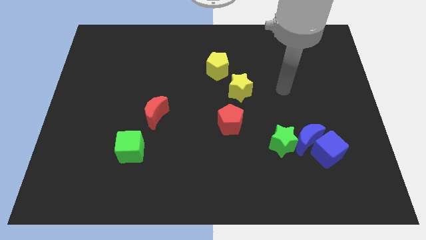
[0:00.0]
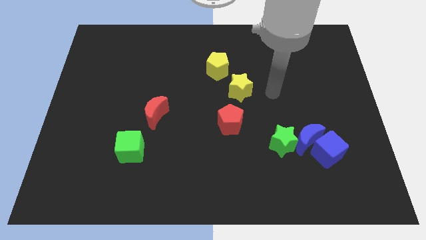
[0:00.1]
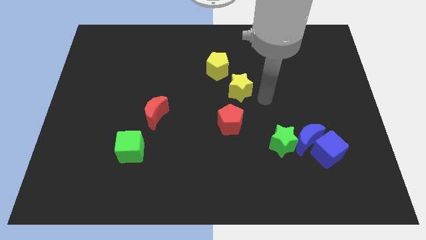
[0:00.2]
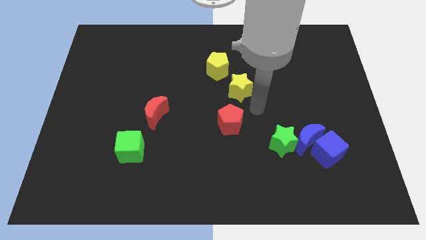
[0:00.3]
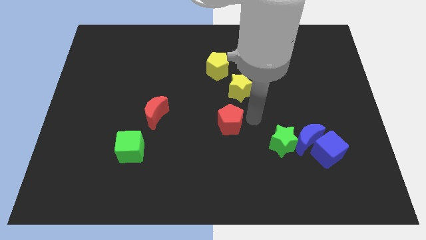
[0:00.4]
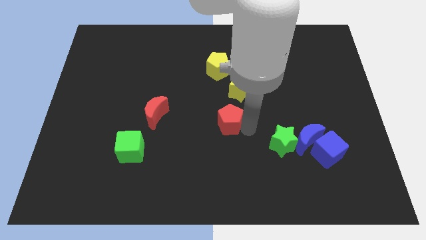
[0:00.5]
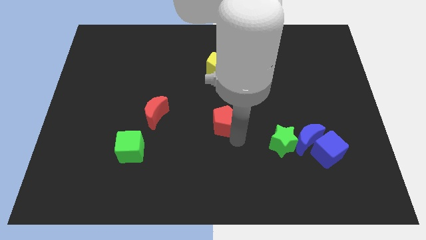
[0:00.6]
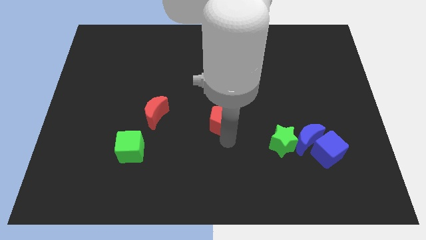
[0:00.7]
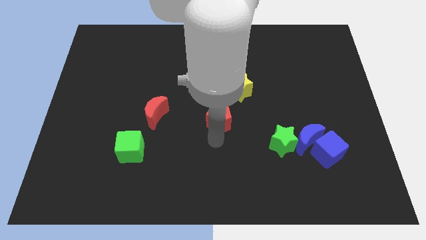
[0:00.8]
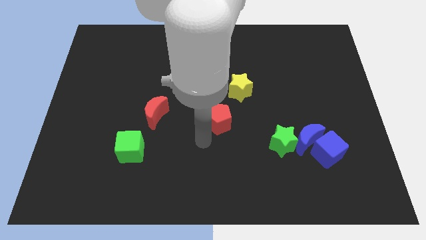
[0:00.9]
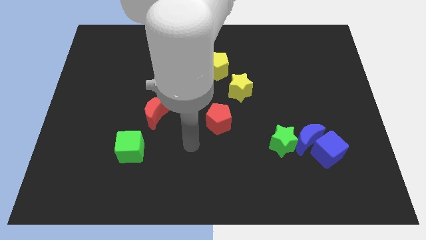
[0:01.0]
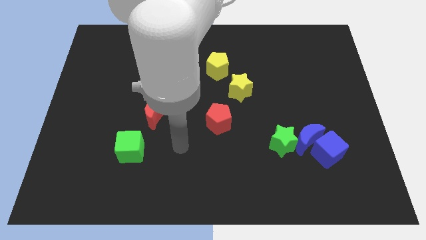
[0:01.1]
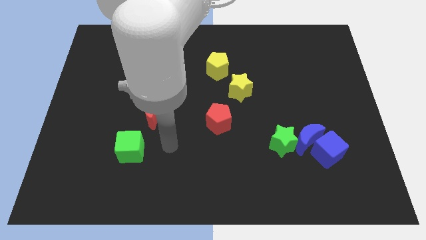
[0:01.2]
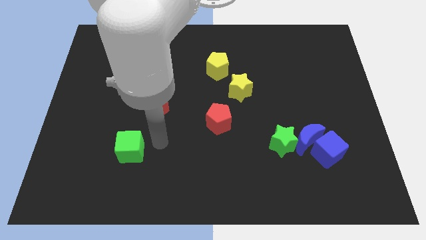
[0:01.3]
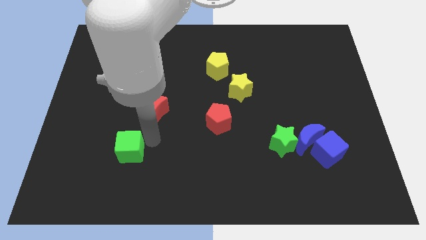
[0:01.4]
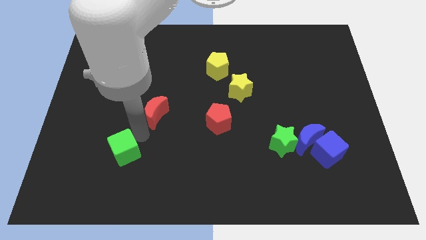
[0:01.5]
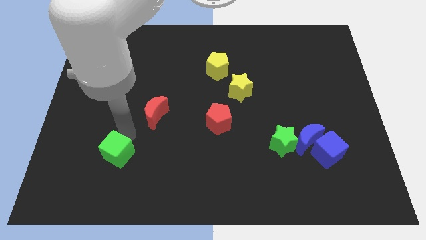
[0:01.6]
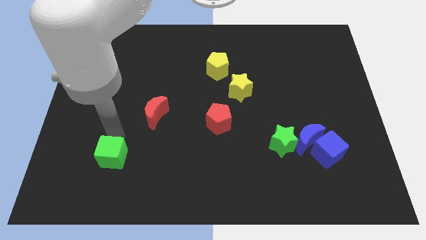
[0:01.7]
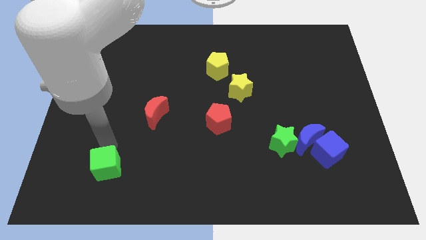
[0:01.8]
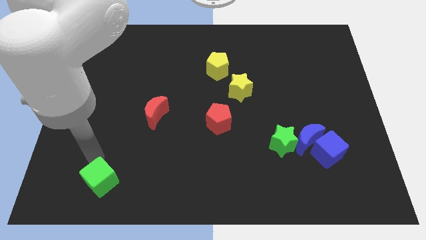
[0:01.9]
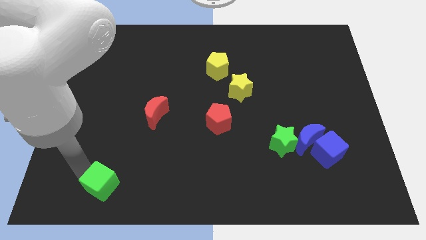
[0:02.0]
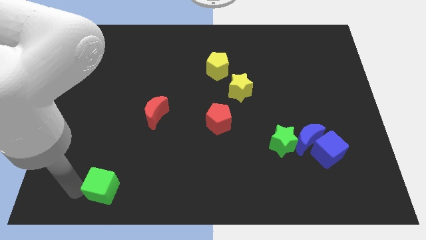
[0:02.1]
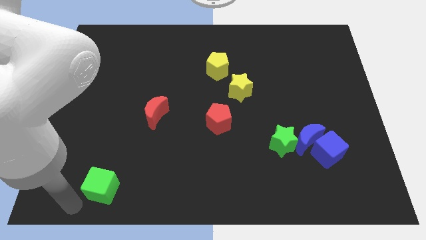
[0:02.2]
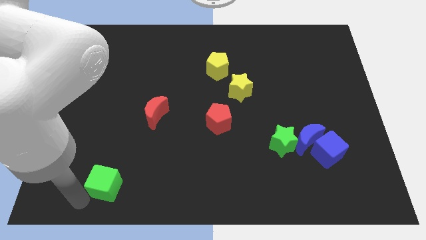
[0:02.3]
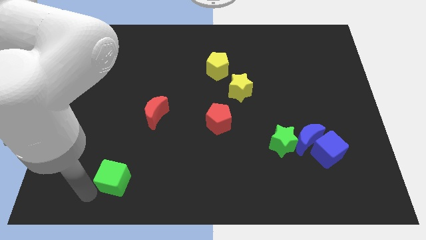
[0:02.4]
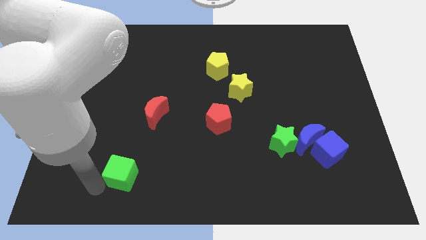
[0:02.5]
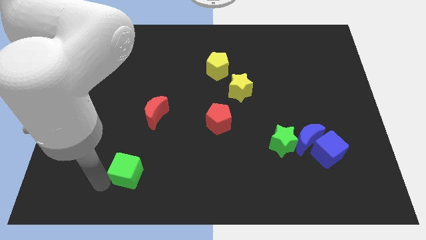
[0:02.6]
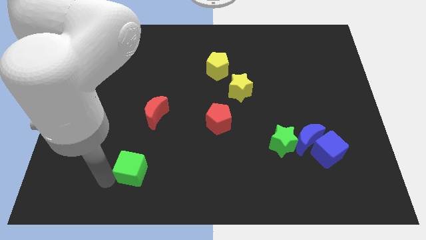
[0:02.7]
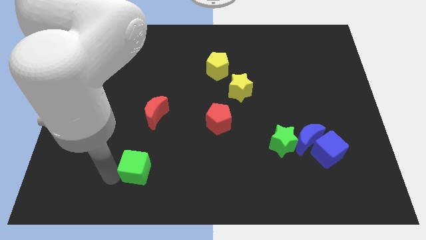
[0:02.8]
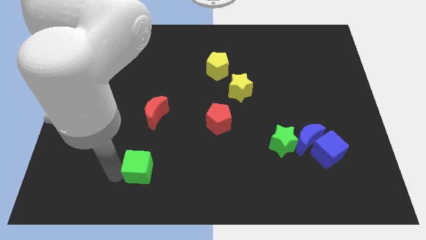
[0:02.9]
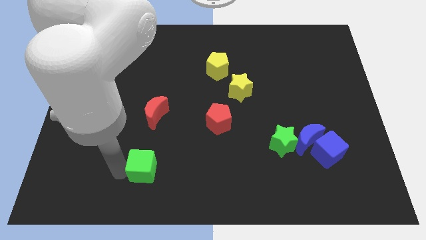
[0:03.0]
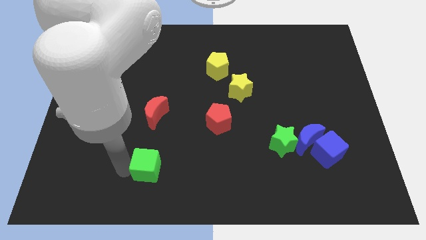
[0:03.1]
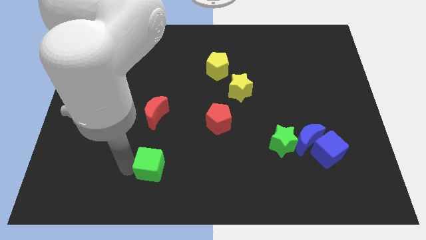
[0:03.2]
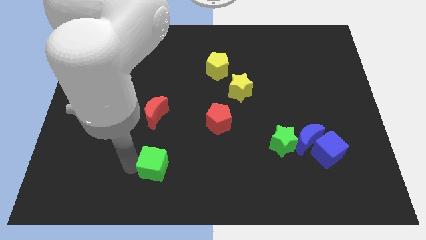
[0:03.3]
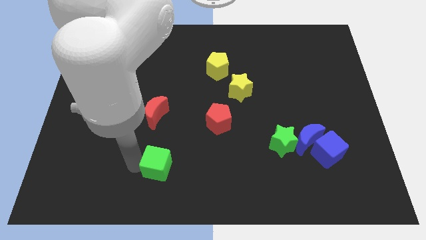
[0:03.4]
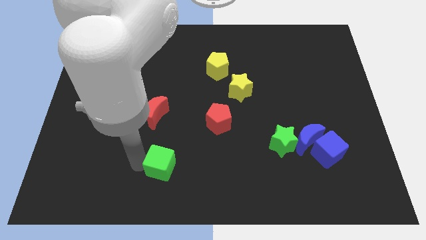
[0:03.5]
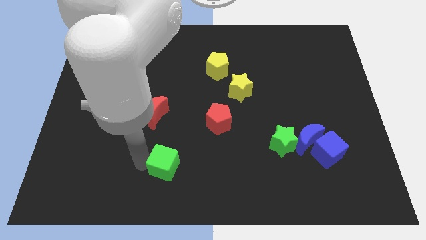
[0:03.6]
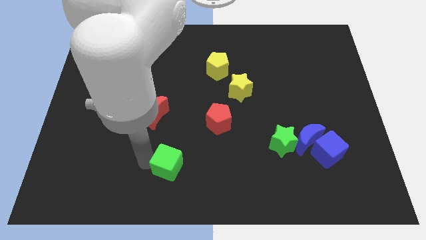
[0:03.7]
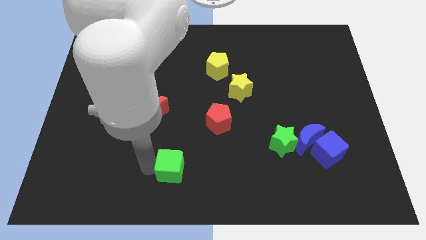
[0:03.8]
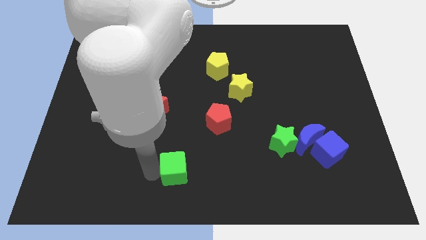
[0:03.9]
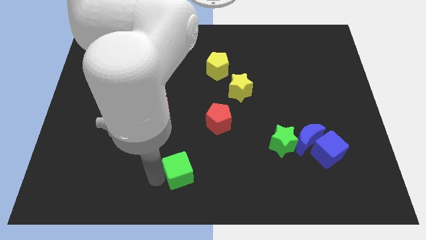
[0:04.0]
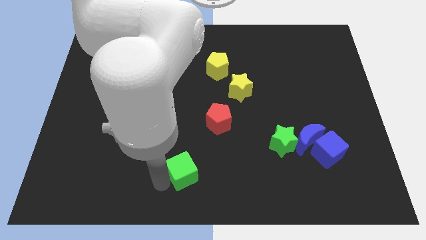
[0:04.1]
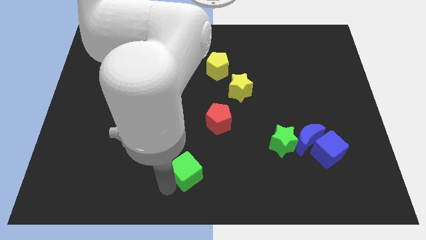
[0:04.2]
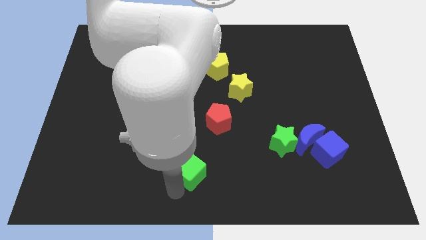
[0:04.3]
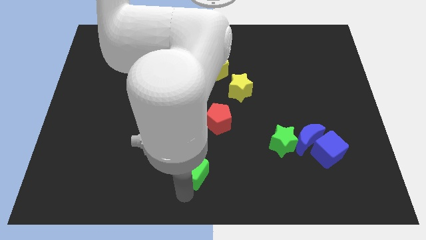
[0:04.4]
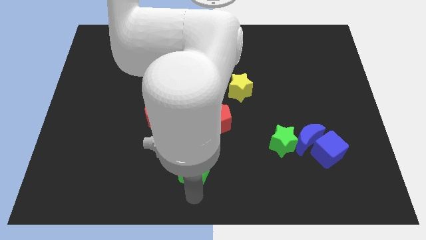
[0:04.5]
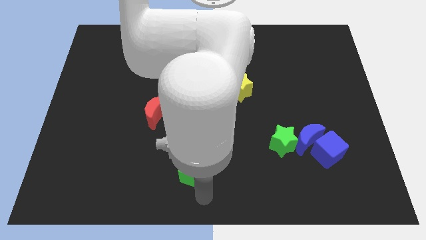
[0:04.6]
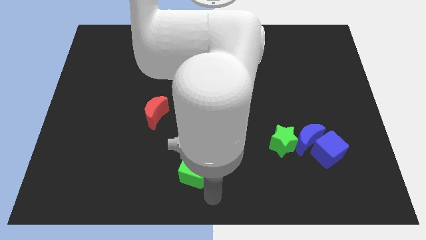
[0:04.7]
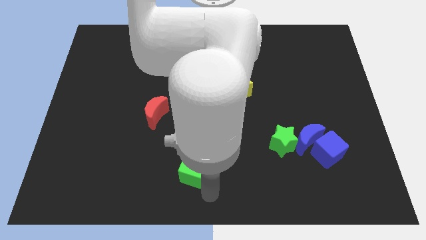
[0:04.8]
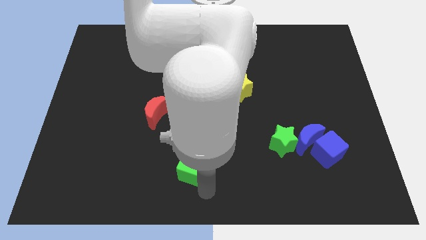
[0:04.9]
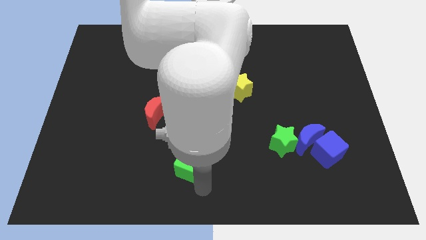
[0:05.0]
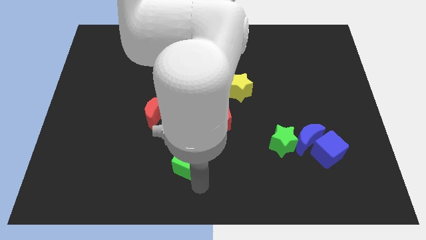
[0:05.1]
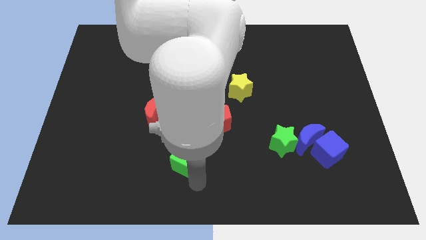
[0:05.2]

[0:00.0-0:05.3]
push the green cube to the bottom left of the red pentagon

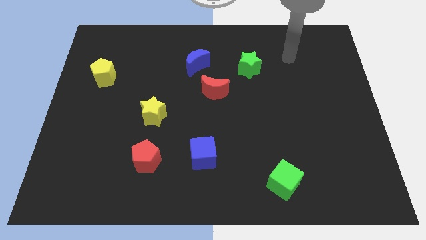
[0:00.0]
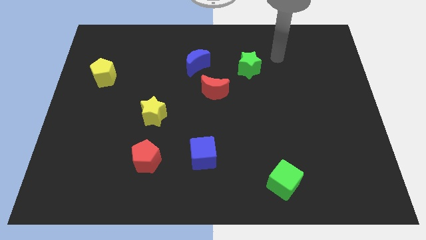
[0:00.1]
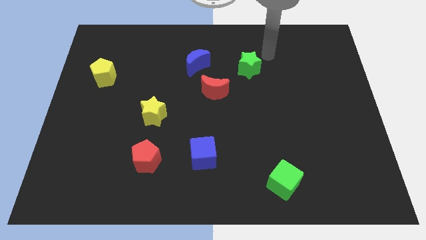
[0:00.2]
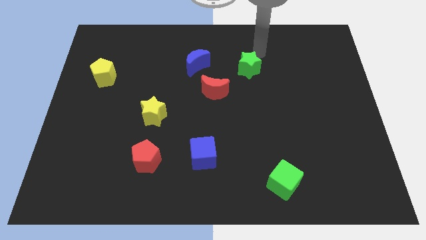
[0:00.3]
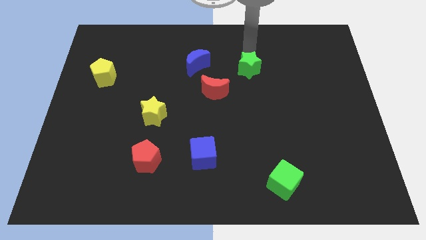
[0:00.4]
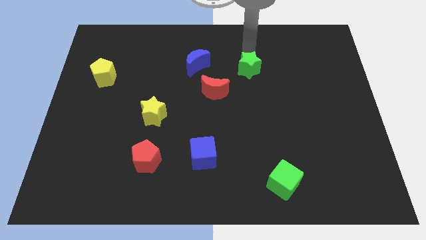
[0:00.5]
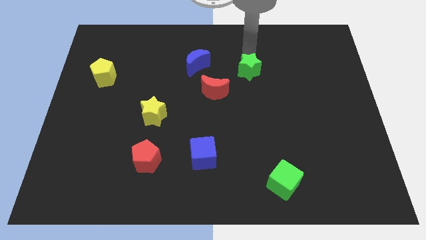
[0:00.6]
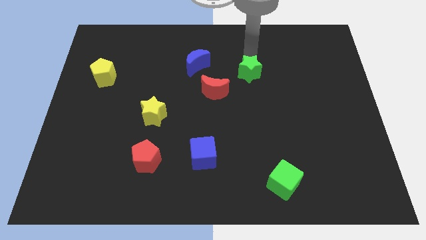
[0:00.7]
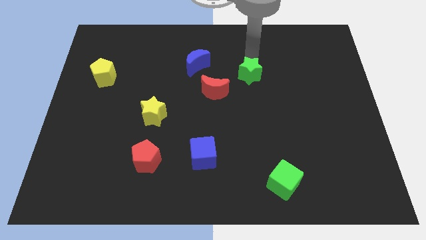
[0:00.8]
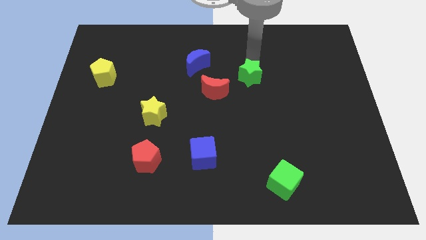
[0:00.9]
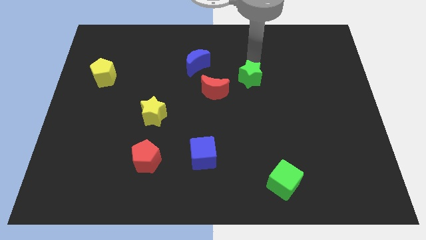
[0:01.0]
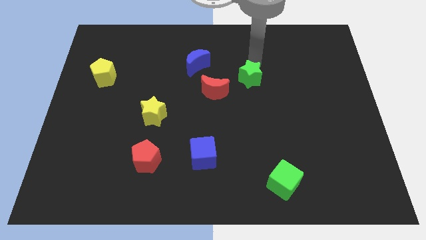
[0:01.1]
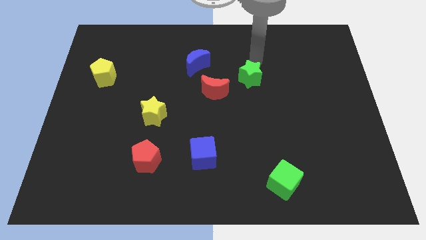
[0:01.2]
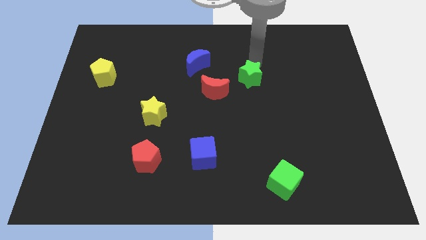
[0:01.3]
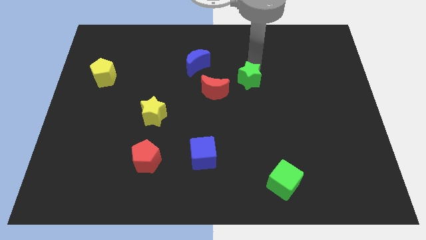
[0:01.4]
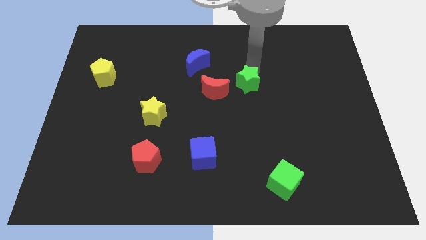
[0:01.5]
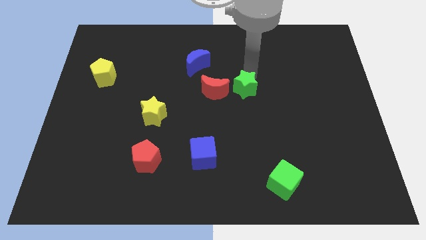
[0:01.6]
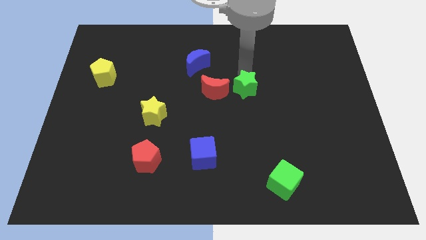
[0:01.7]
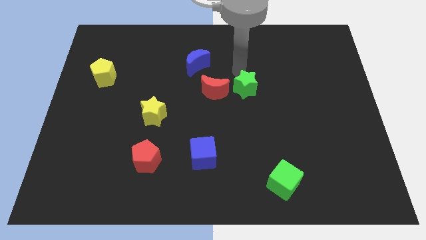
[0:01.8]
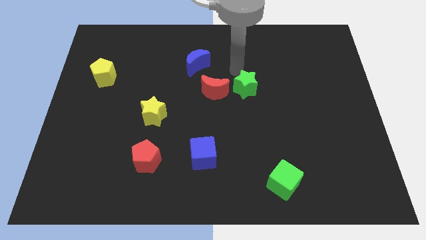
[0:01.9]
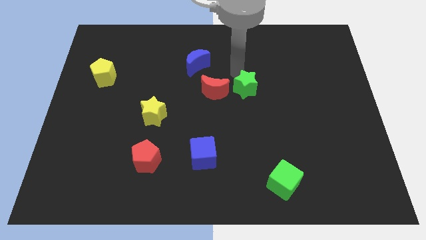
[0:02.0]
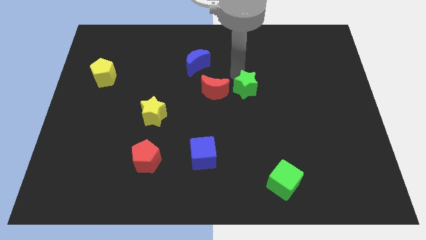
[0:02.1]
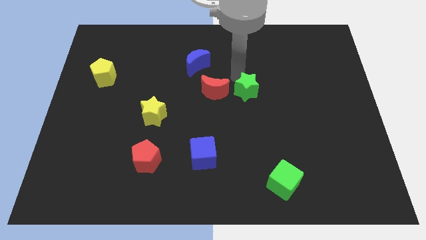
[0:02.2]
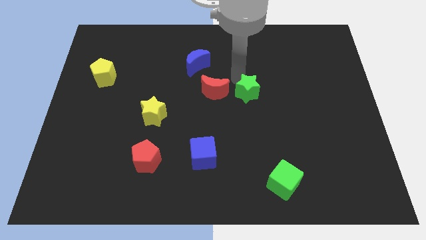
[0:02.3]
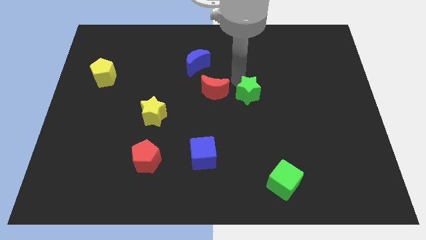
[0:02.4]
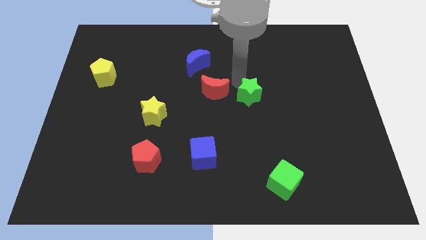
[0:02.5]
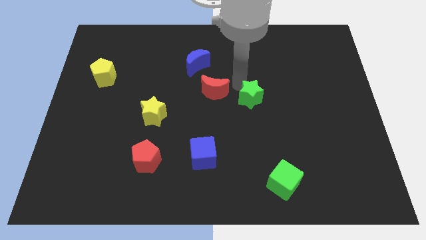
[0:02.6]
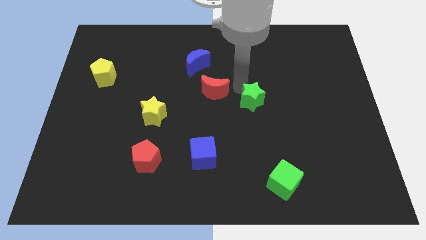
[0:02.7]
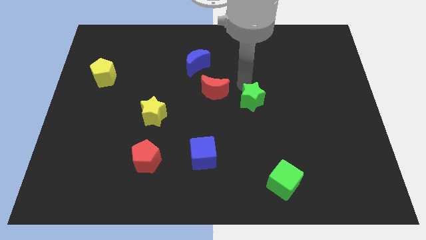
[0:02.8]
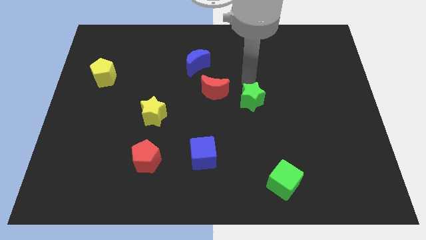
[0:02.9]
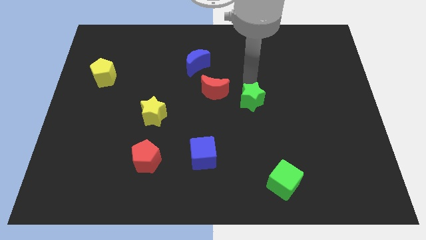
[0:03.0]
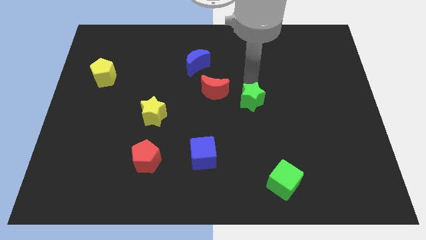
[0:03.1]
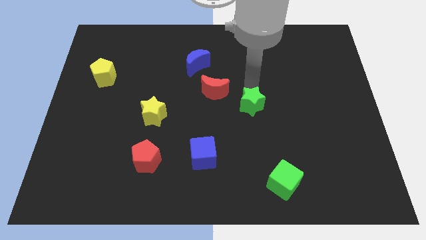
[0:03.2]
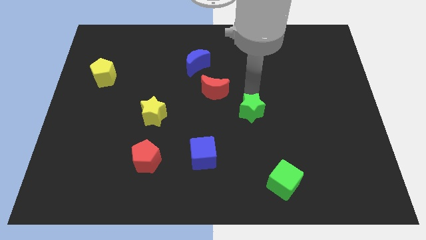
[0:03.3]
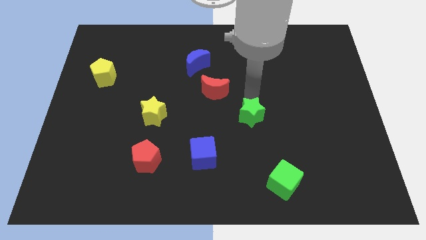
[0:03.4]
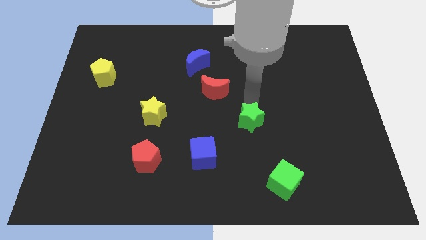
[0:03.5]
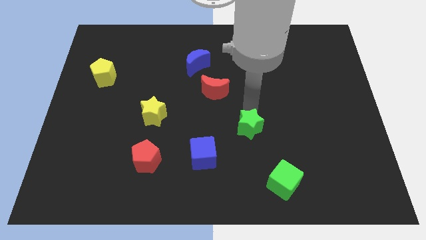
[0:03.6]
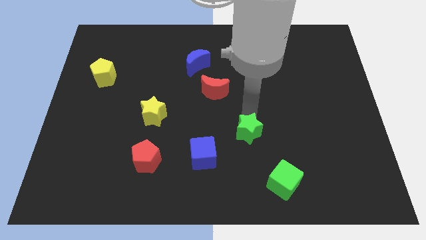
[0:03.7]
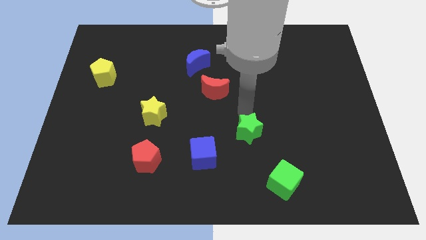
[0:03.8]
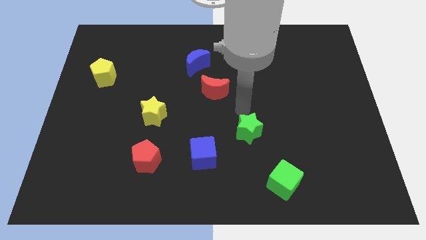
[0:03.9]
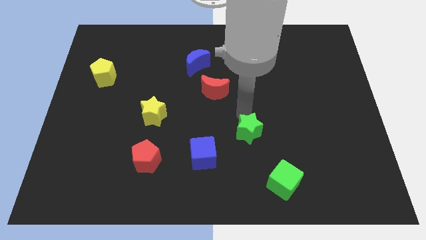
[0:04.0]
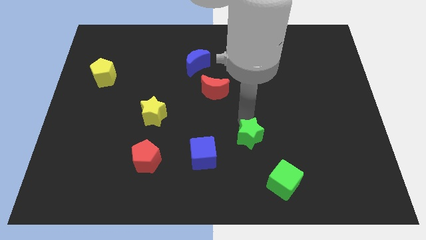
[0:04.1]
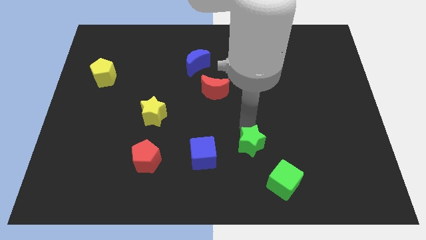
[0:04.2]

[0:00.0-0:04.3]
put the green star to the top left side of the green cube
